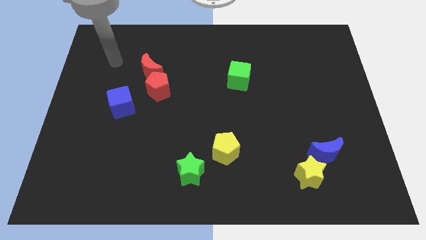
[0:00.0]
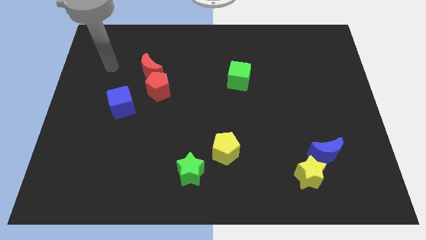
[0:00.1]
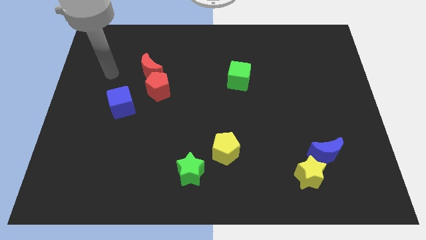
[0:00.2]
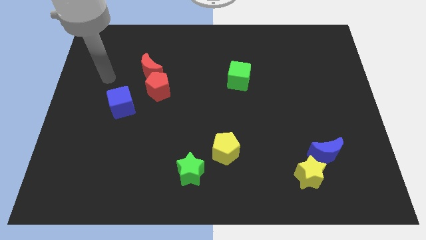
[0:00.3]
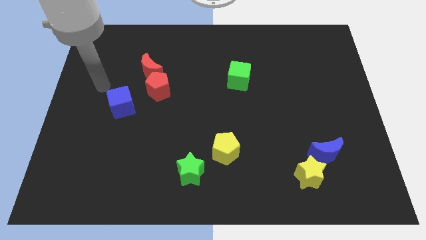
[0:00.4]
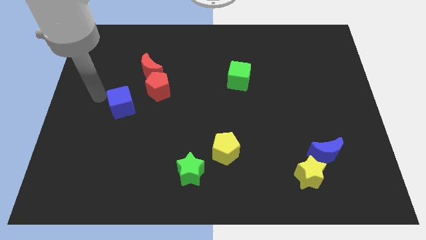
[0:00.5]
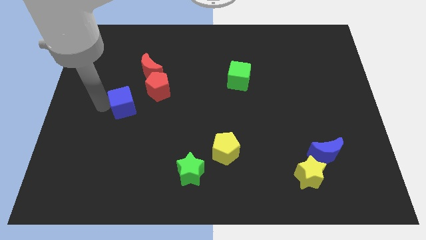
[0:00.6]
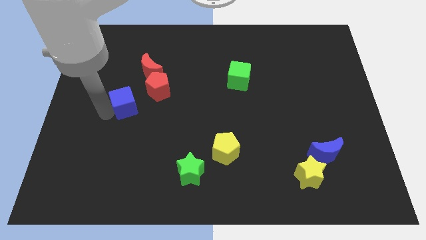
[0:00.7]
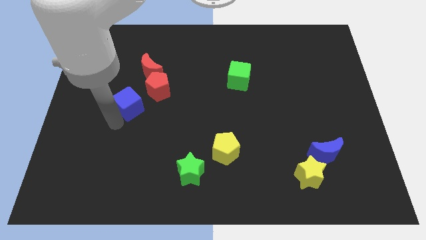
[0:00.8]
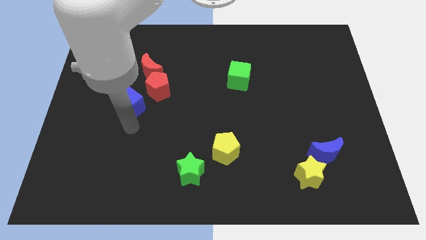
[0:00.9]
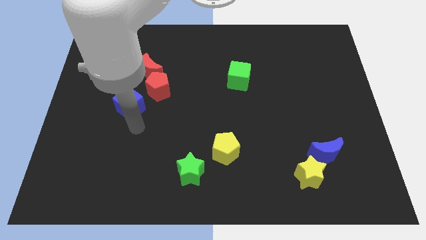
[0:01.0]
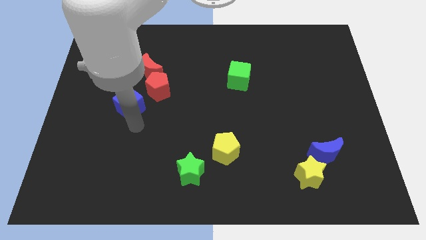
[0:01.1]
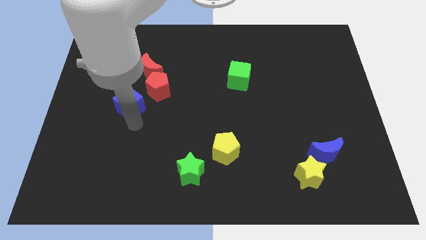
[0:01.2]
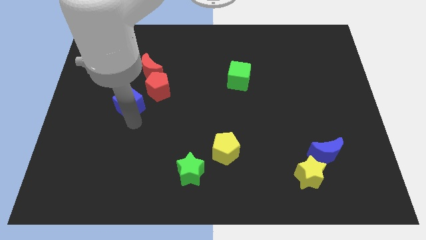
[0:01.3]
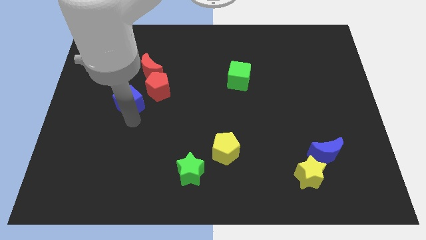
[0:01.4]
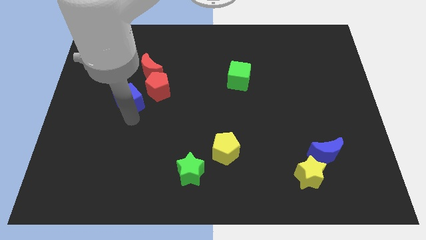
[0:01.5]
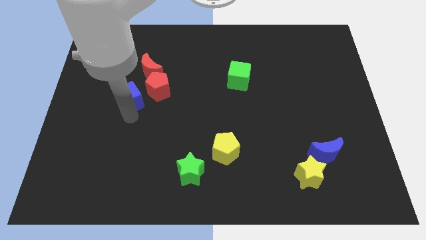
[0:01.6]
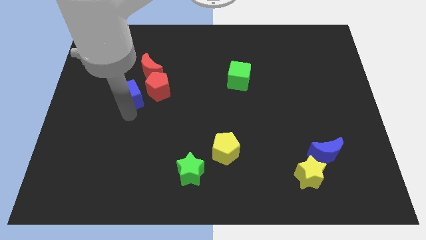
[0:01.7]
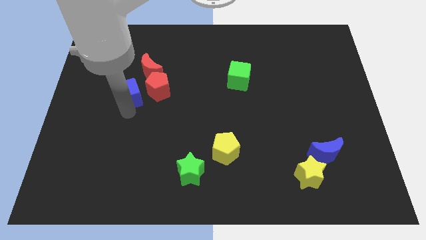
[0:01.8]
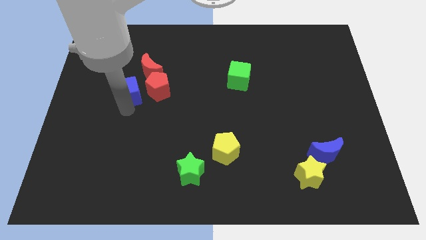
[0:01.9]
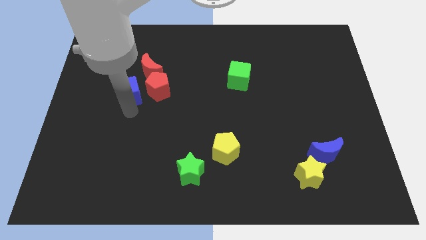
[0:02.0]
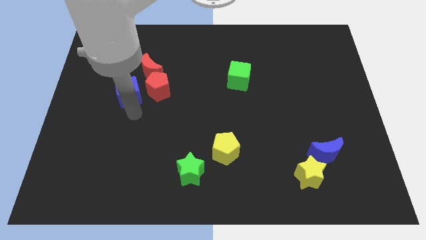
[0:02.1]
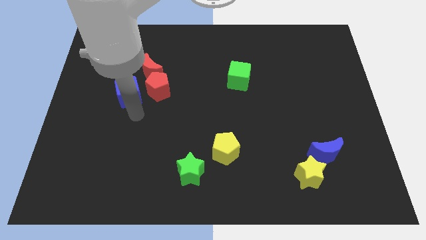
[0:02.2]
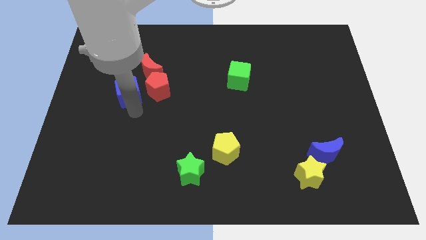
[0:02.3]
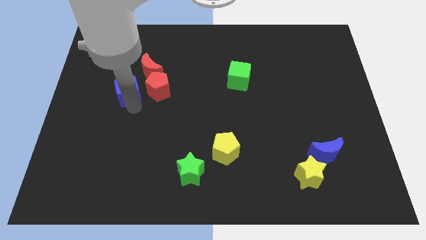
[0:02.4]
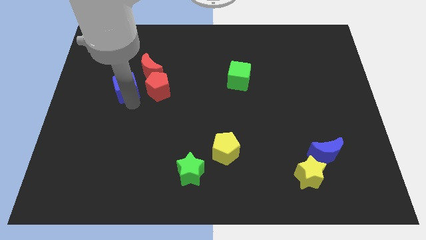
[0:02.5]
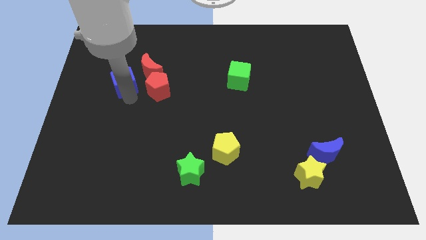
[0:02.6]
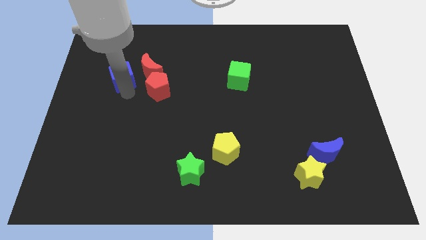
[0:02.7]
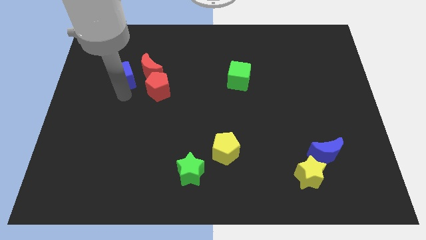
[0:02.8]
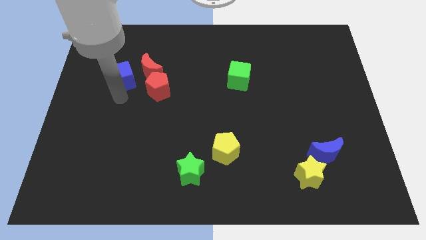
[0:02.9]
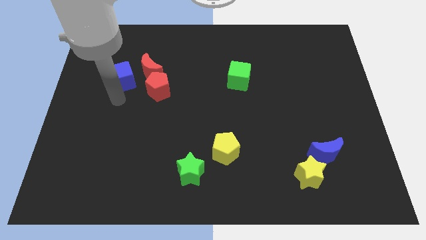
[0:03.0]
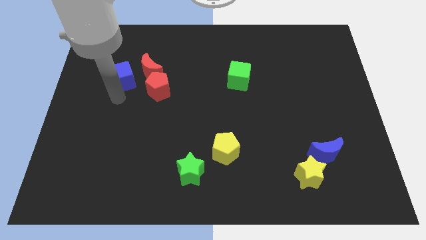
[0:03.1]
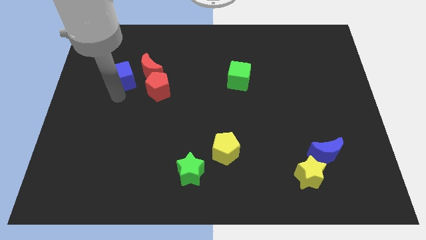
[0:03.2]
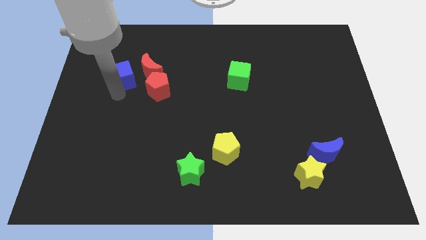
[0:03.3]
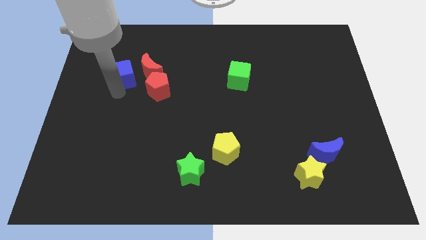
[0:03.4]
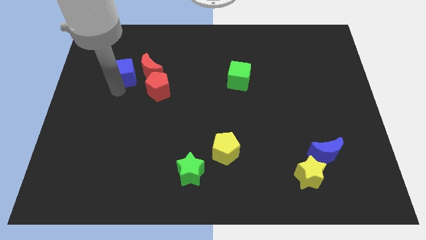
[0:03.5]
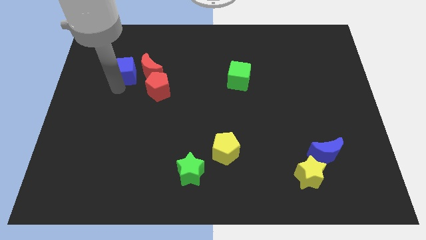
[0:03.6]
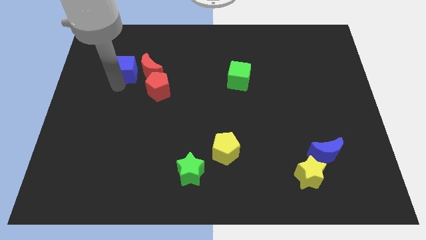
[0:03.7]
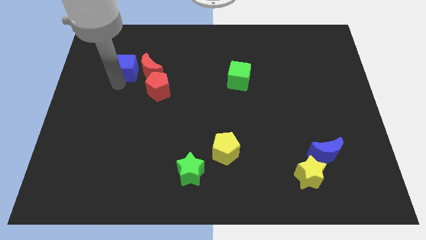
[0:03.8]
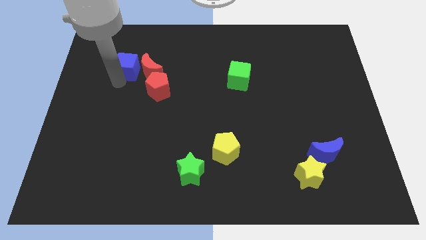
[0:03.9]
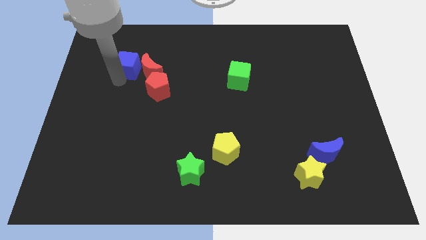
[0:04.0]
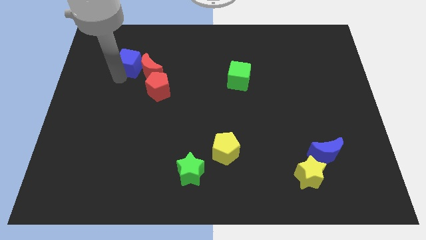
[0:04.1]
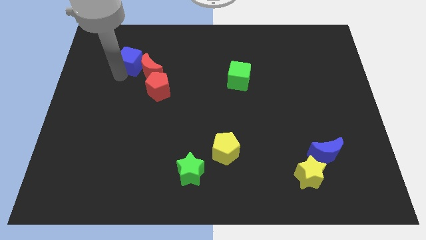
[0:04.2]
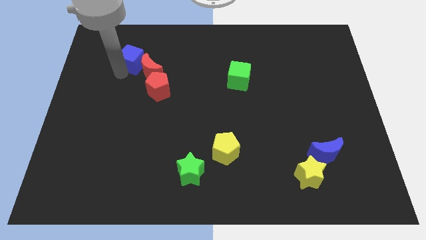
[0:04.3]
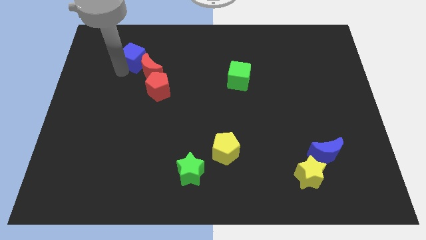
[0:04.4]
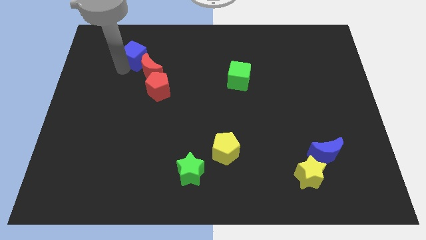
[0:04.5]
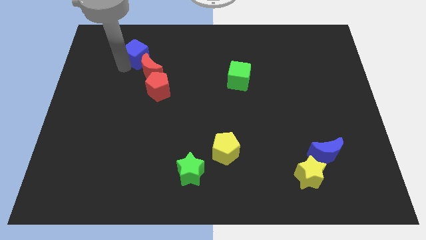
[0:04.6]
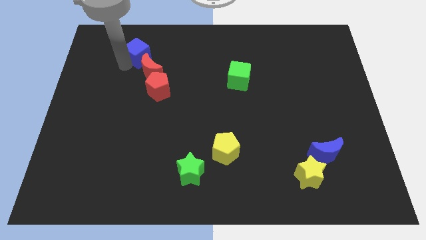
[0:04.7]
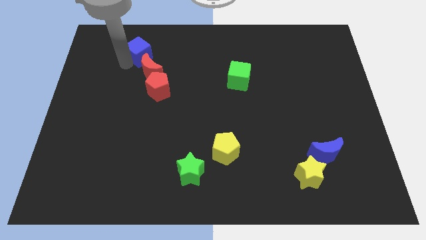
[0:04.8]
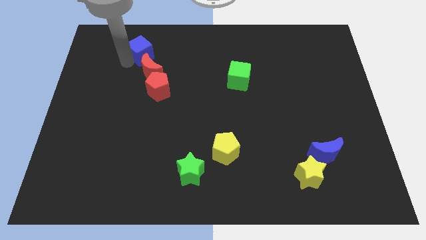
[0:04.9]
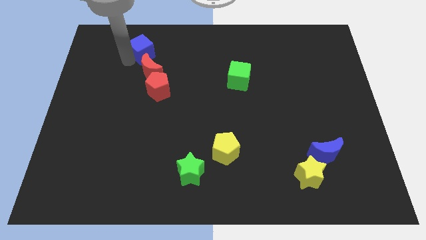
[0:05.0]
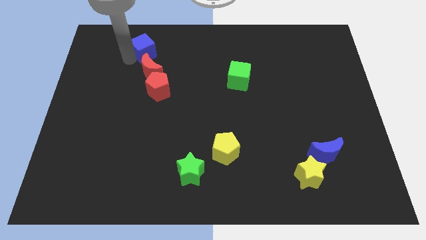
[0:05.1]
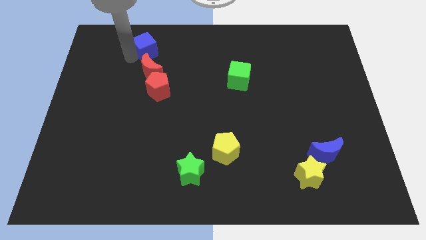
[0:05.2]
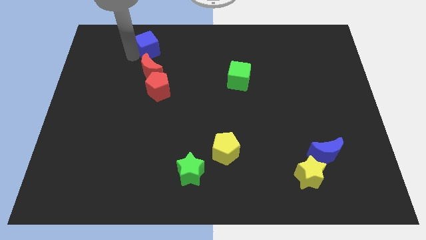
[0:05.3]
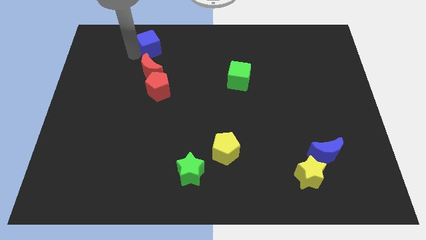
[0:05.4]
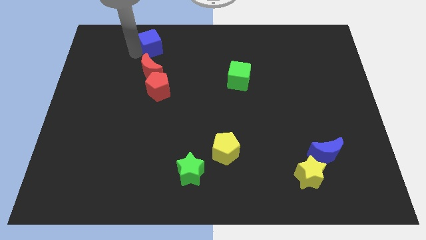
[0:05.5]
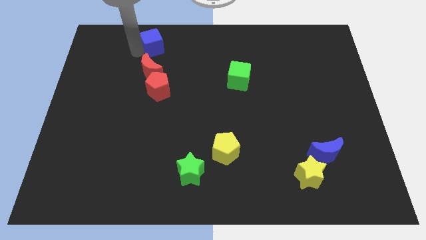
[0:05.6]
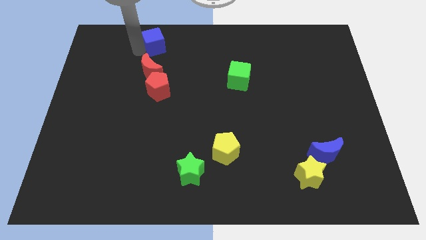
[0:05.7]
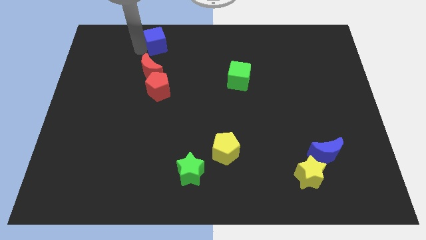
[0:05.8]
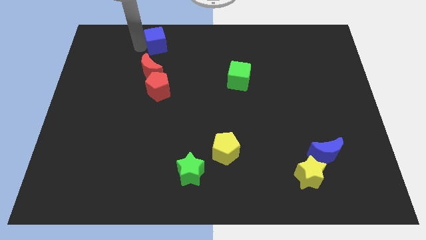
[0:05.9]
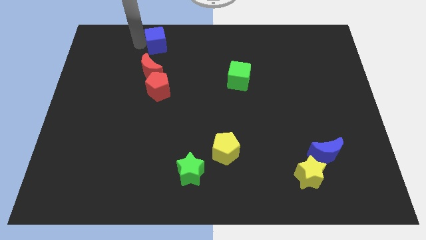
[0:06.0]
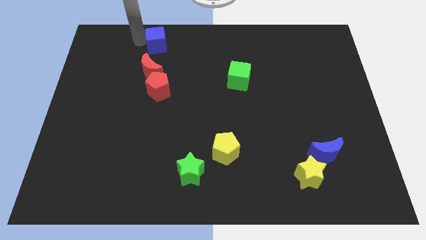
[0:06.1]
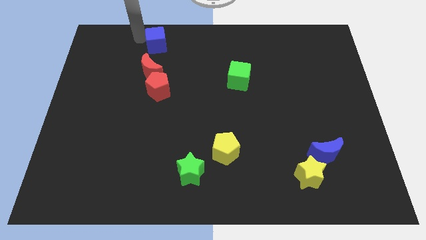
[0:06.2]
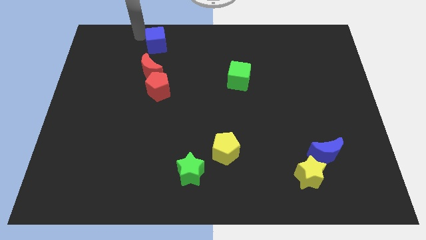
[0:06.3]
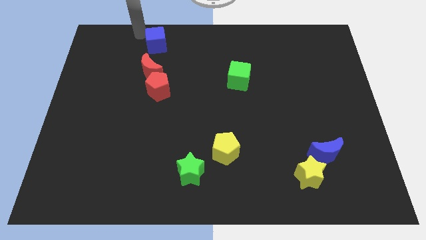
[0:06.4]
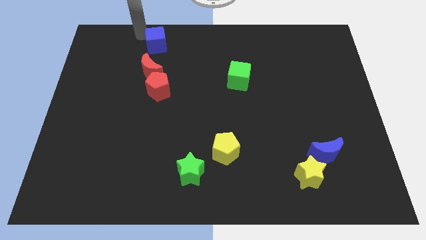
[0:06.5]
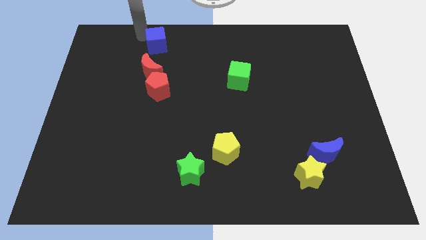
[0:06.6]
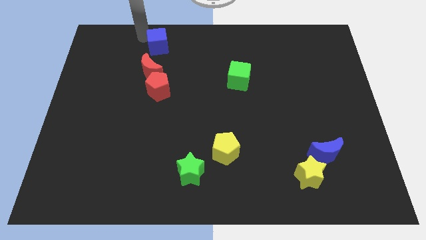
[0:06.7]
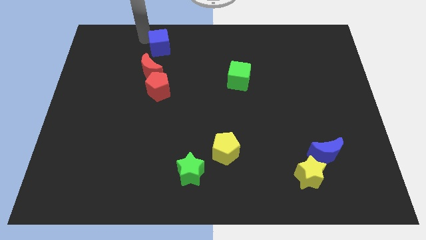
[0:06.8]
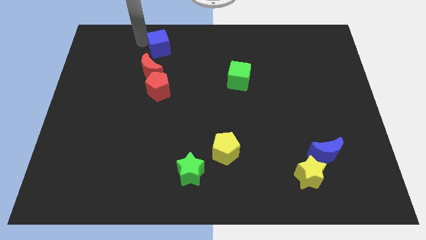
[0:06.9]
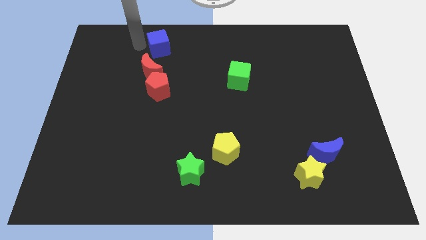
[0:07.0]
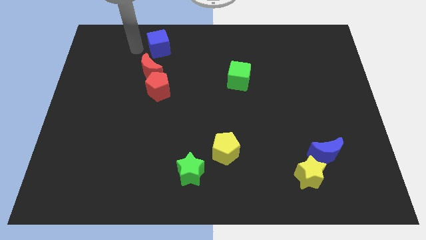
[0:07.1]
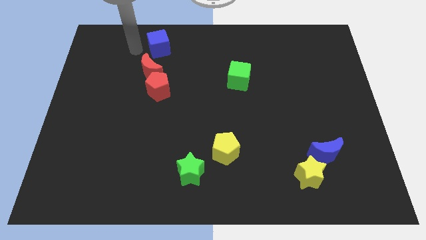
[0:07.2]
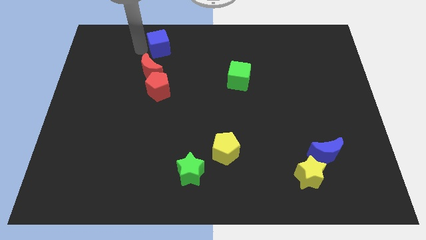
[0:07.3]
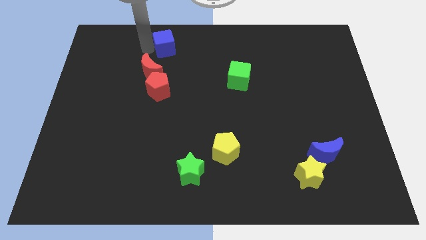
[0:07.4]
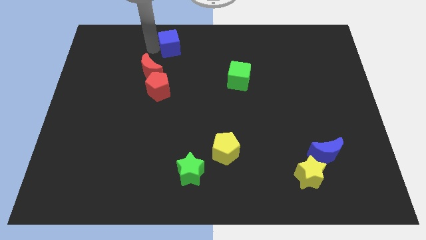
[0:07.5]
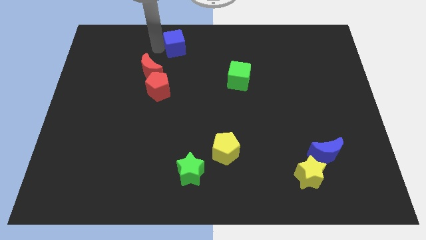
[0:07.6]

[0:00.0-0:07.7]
push the blue cube to the top
